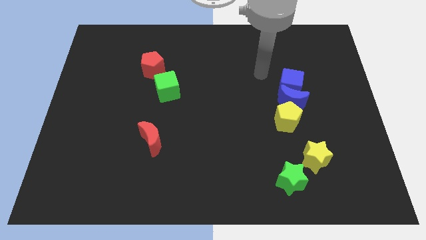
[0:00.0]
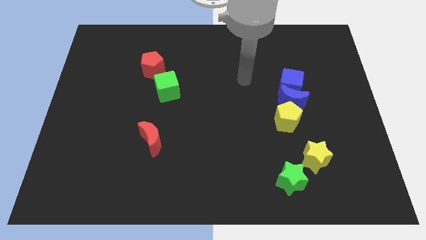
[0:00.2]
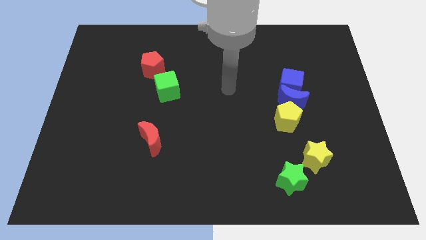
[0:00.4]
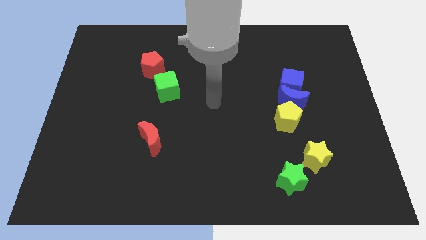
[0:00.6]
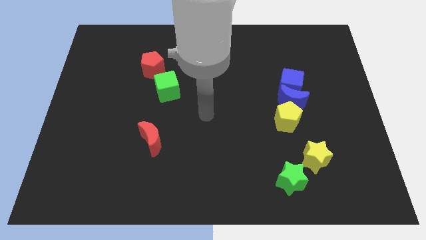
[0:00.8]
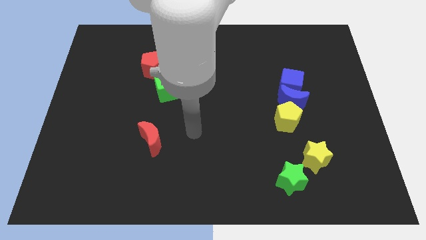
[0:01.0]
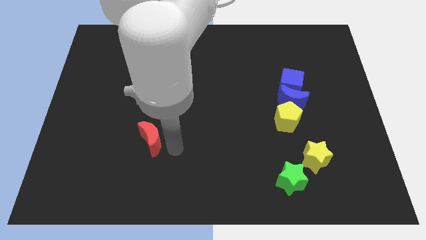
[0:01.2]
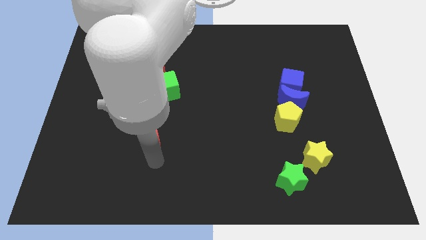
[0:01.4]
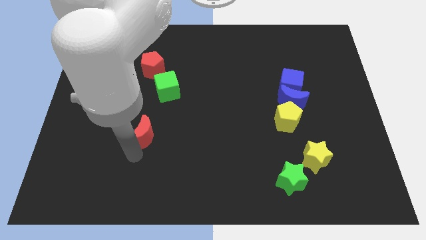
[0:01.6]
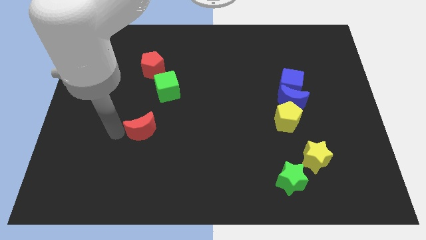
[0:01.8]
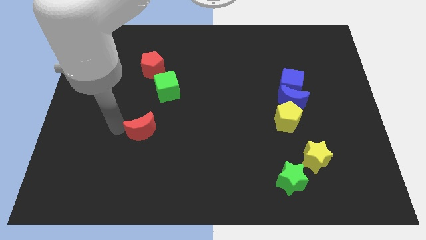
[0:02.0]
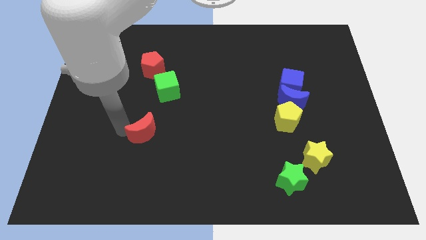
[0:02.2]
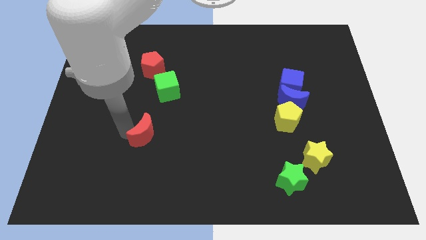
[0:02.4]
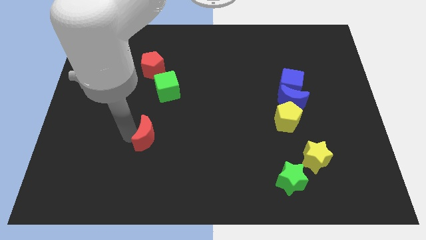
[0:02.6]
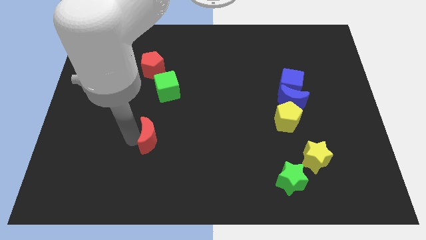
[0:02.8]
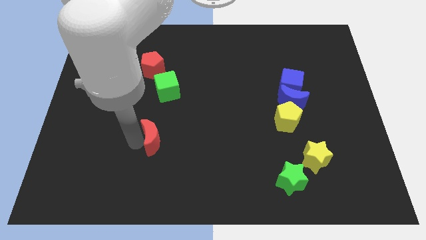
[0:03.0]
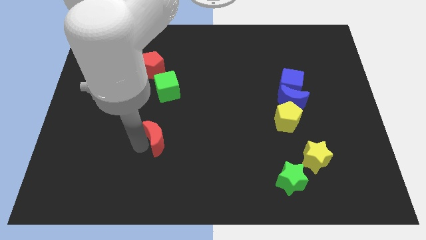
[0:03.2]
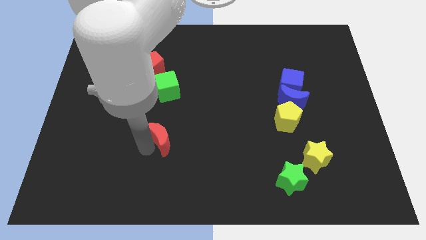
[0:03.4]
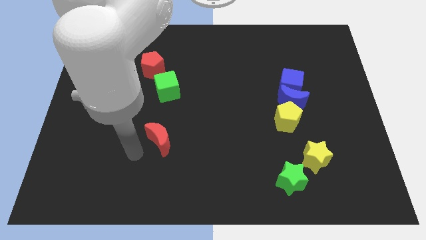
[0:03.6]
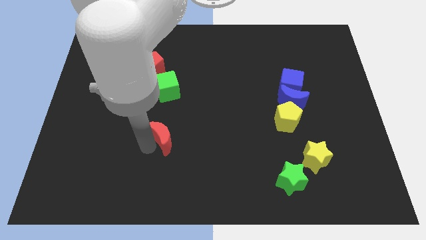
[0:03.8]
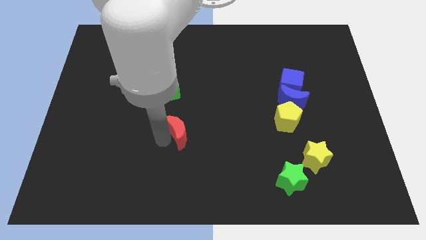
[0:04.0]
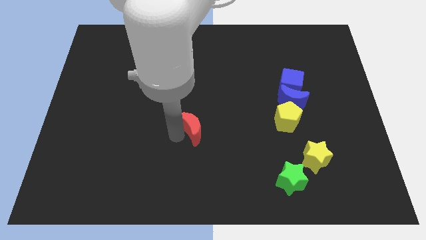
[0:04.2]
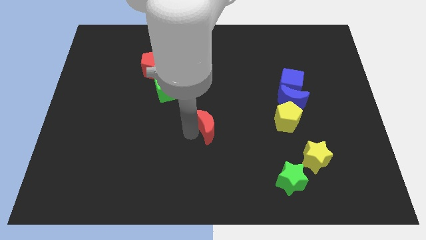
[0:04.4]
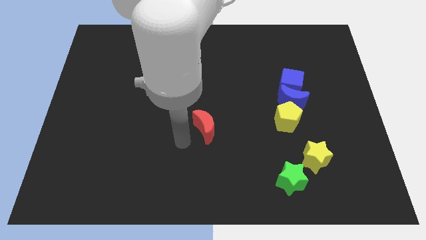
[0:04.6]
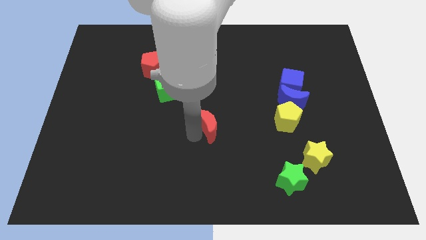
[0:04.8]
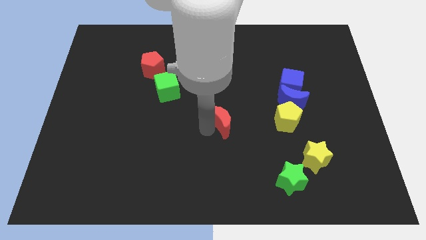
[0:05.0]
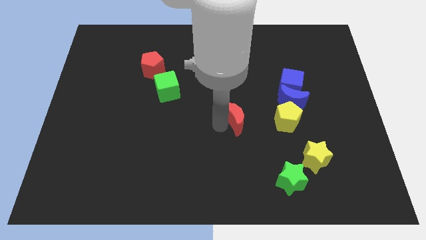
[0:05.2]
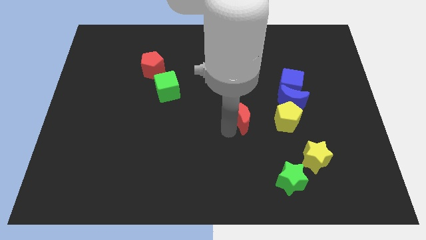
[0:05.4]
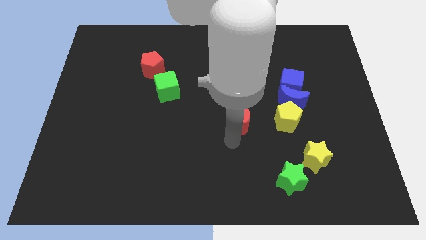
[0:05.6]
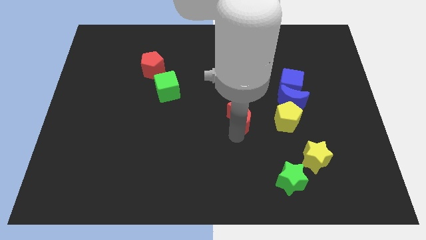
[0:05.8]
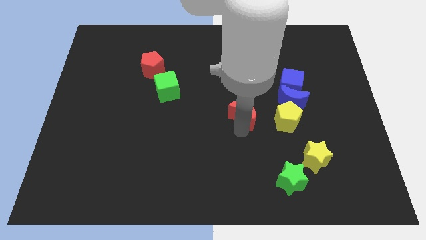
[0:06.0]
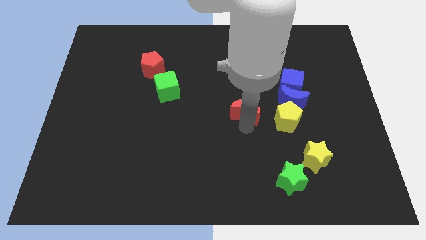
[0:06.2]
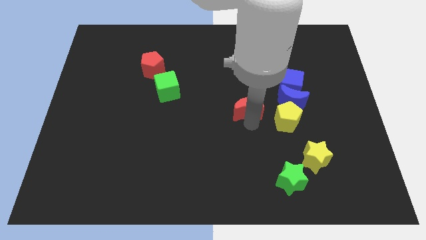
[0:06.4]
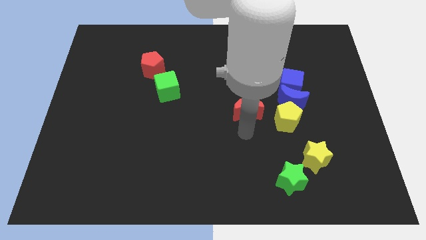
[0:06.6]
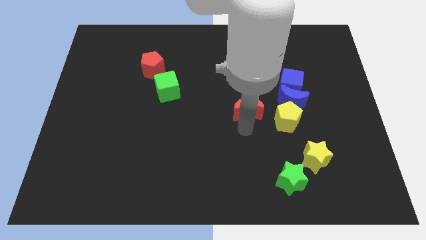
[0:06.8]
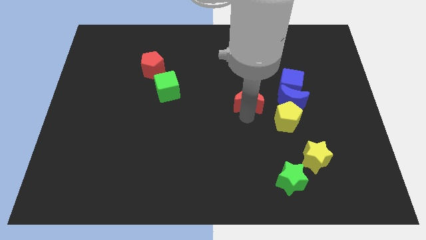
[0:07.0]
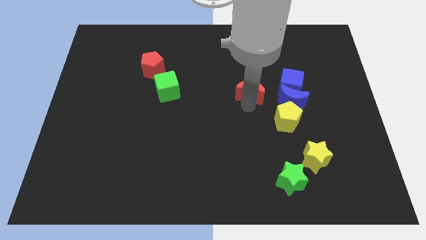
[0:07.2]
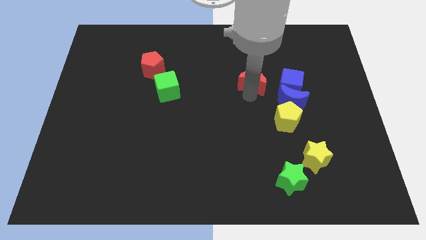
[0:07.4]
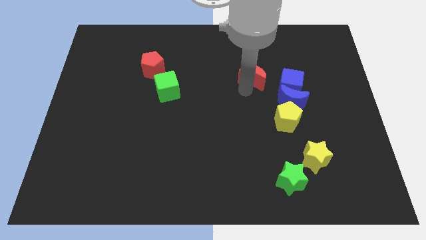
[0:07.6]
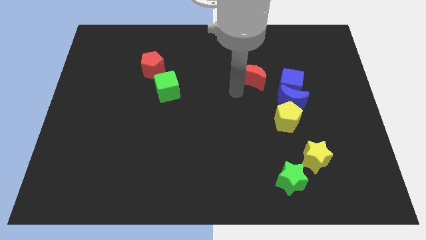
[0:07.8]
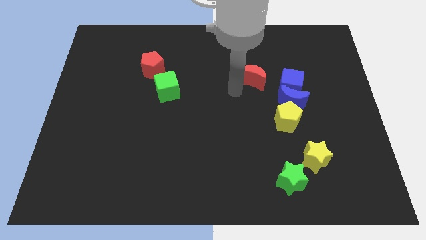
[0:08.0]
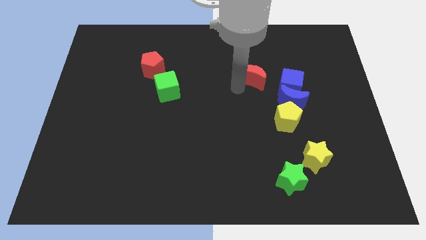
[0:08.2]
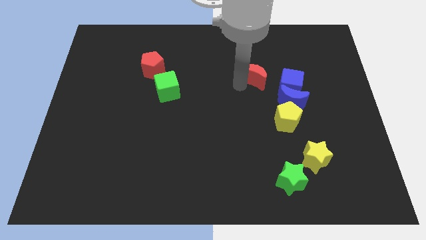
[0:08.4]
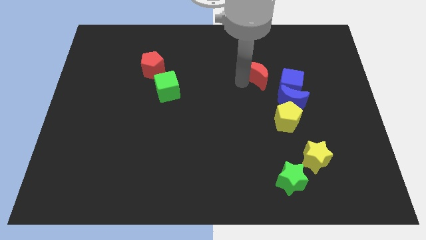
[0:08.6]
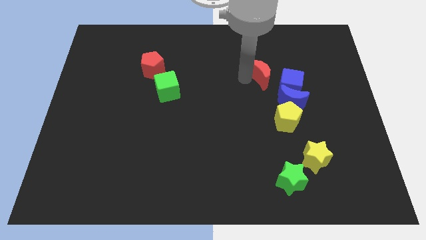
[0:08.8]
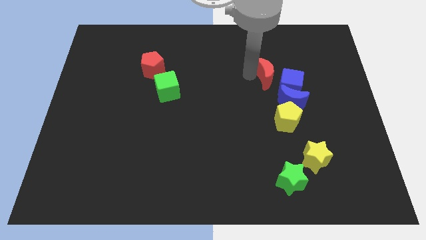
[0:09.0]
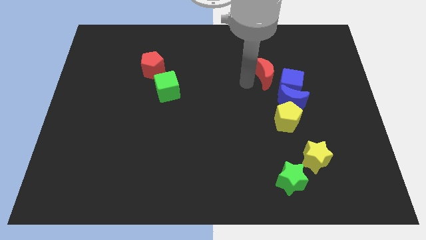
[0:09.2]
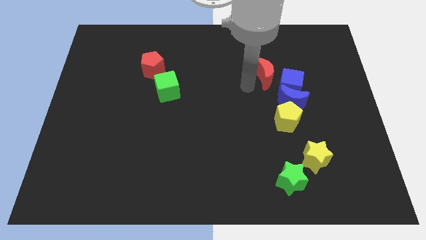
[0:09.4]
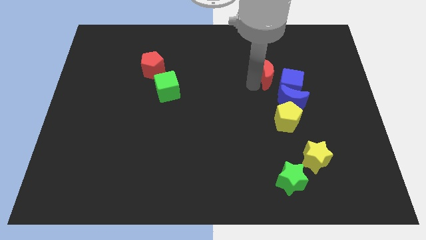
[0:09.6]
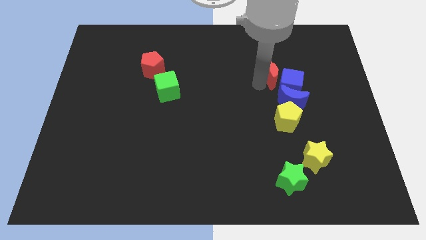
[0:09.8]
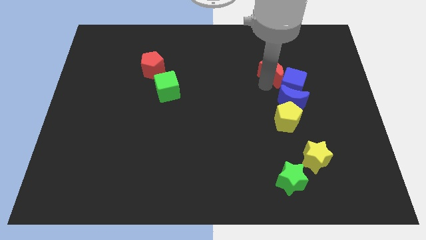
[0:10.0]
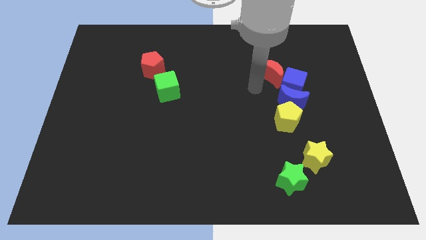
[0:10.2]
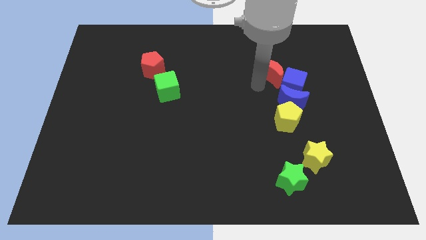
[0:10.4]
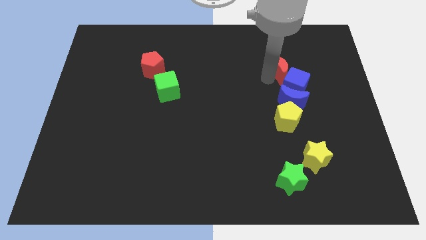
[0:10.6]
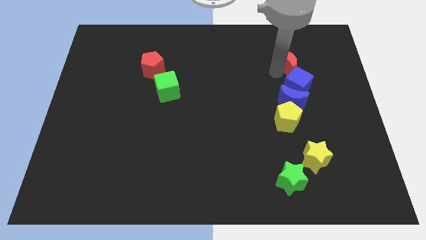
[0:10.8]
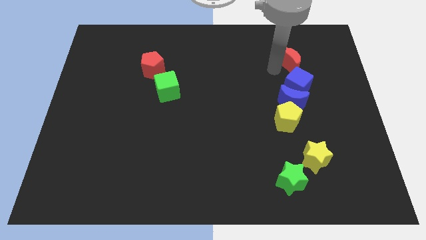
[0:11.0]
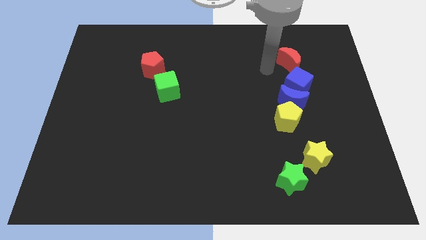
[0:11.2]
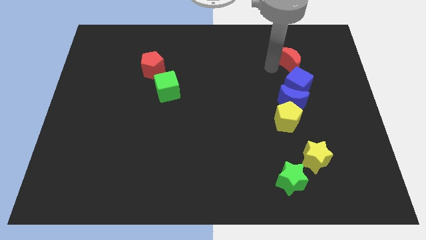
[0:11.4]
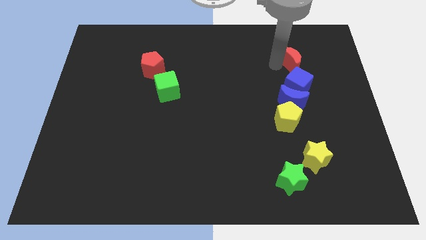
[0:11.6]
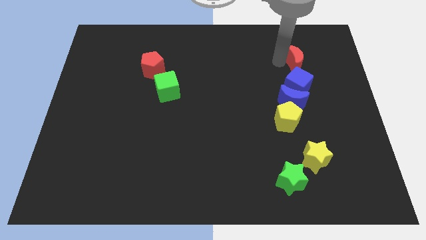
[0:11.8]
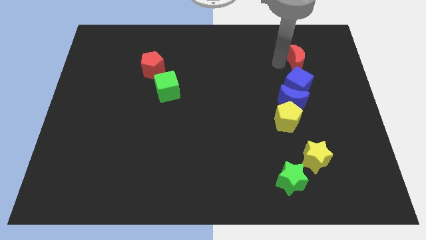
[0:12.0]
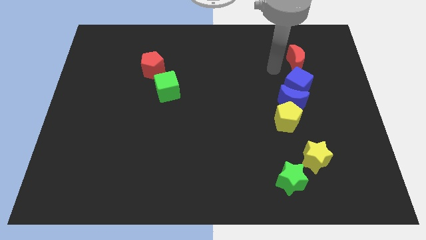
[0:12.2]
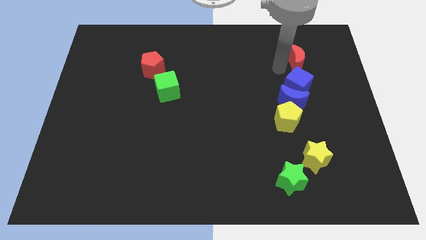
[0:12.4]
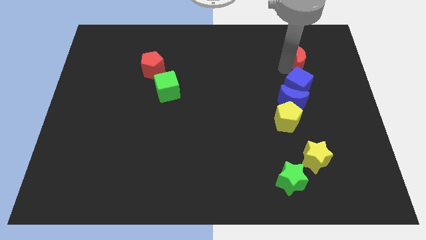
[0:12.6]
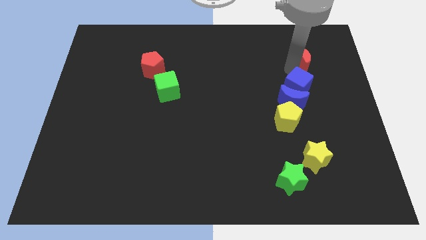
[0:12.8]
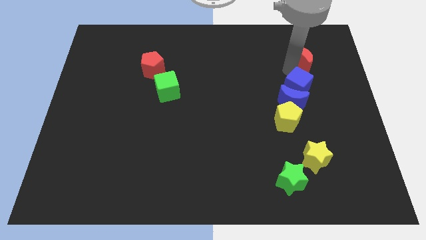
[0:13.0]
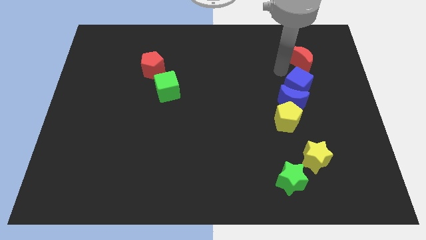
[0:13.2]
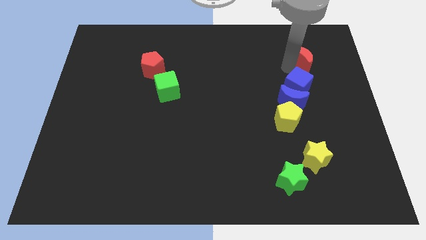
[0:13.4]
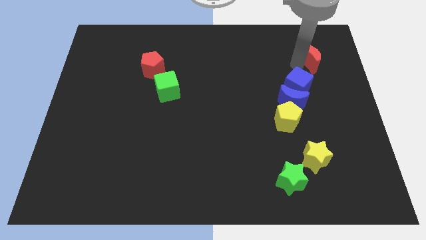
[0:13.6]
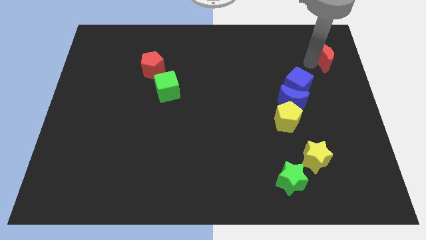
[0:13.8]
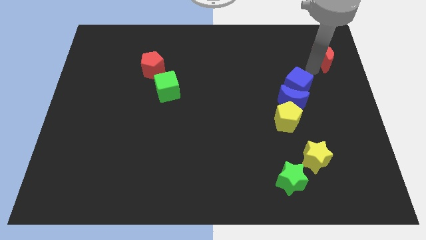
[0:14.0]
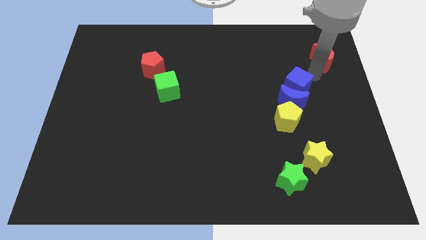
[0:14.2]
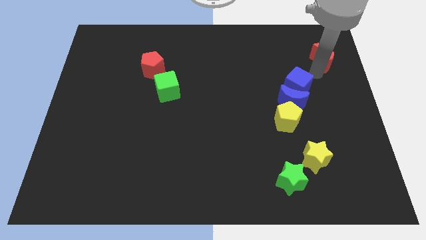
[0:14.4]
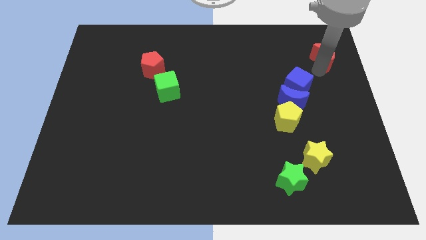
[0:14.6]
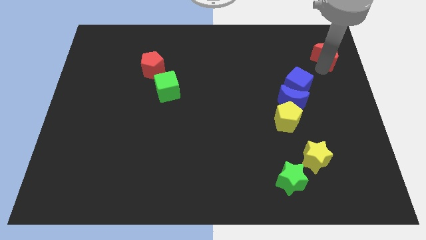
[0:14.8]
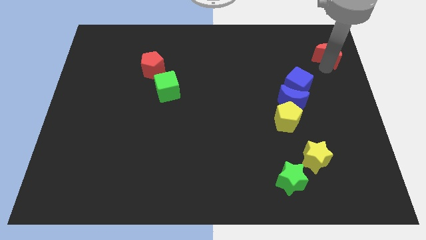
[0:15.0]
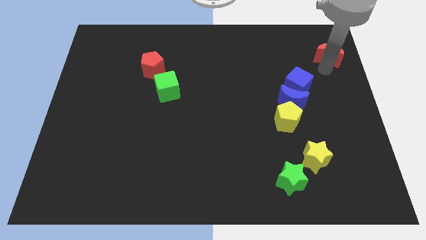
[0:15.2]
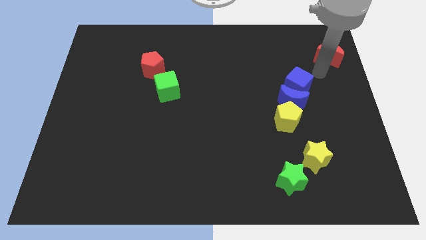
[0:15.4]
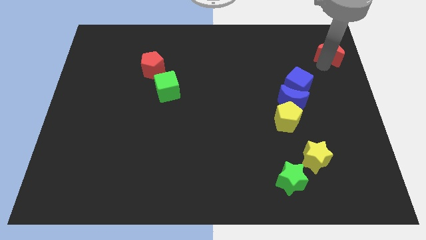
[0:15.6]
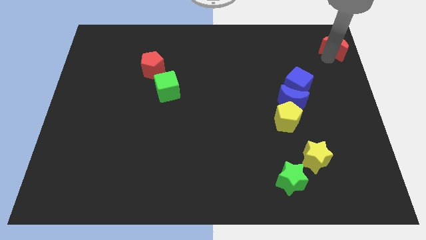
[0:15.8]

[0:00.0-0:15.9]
move the red moon to the upper right corner
